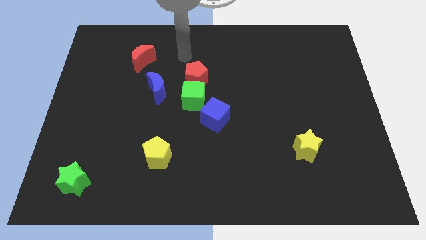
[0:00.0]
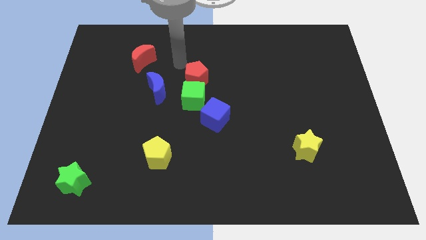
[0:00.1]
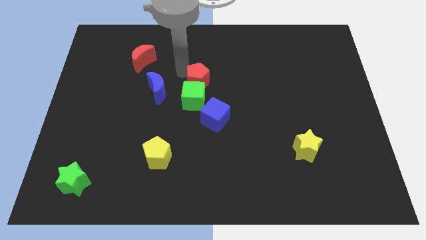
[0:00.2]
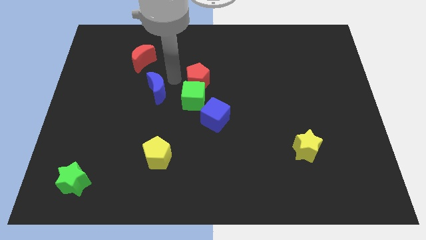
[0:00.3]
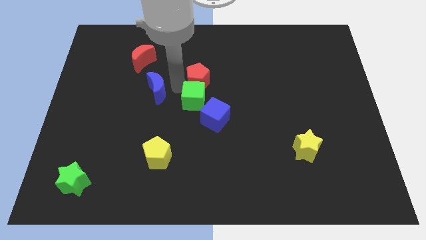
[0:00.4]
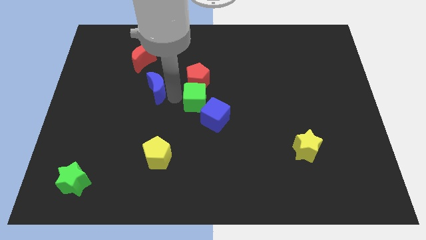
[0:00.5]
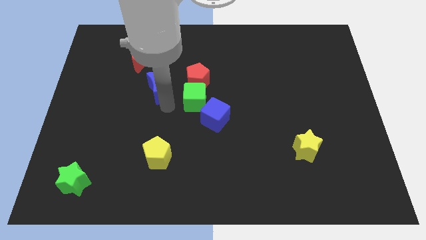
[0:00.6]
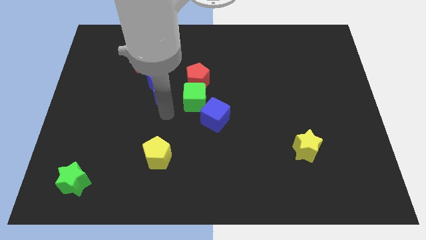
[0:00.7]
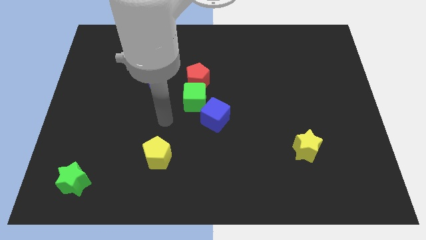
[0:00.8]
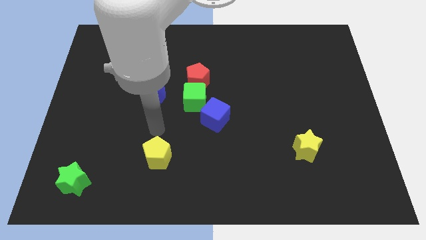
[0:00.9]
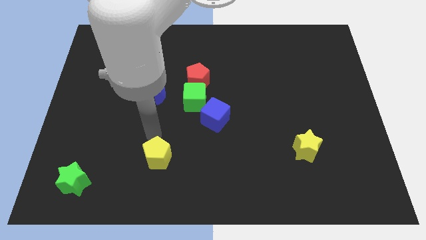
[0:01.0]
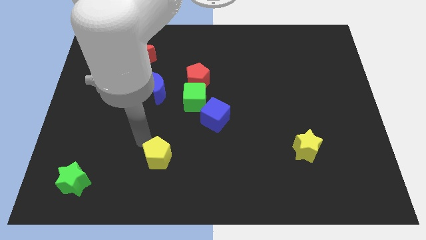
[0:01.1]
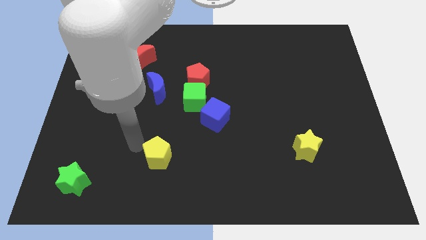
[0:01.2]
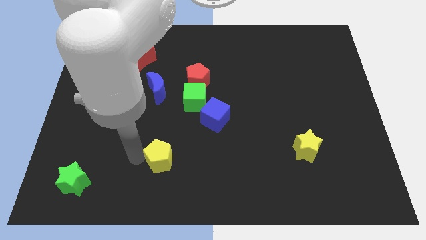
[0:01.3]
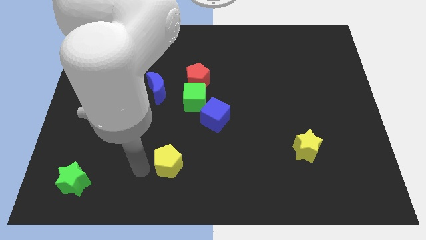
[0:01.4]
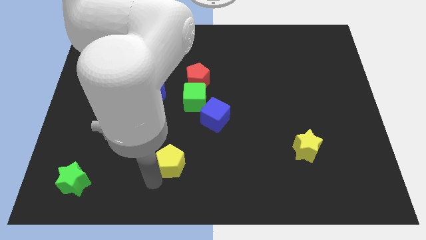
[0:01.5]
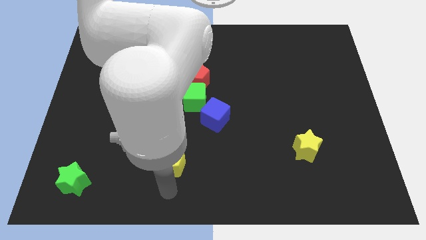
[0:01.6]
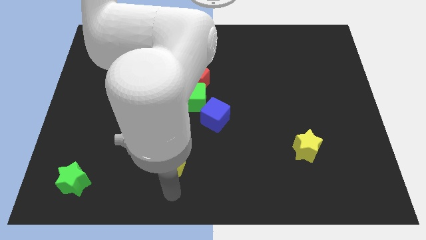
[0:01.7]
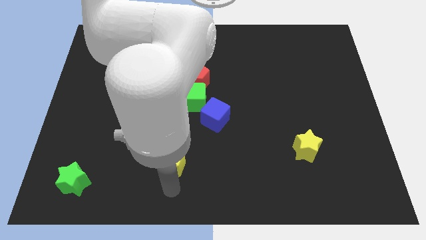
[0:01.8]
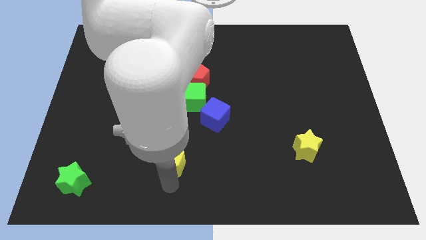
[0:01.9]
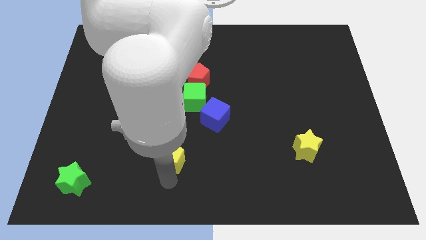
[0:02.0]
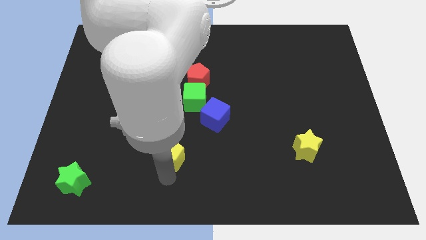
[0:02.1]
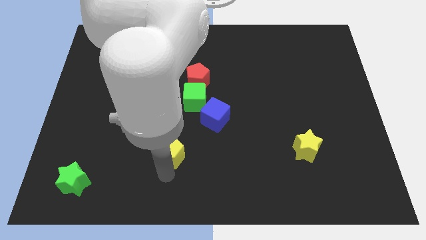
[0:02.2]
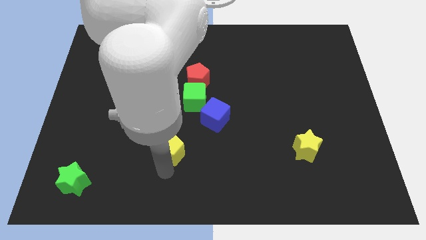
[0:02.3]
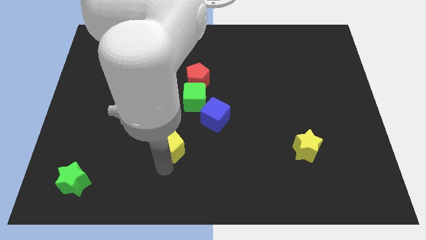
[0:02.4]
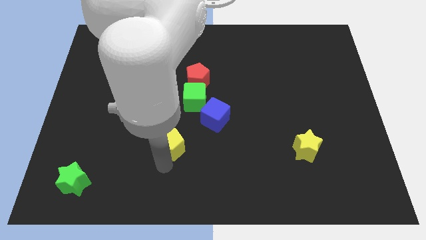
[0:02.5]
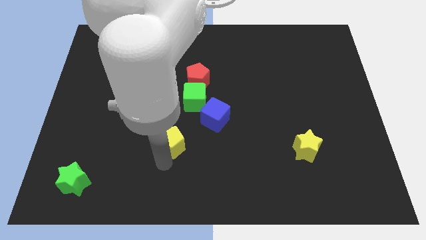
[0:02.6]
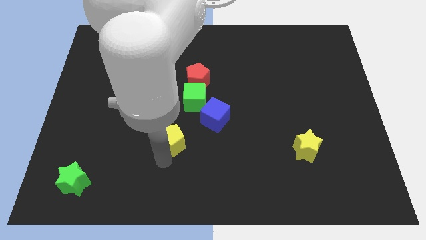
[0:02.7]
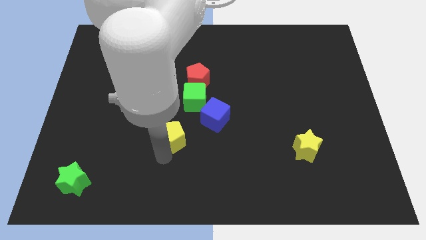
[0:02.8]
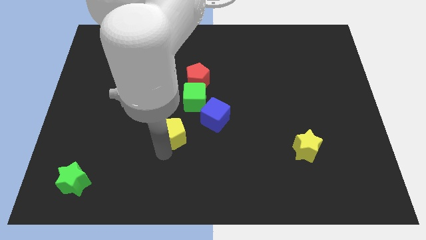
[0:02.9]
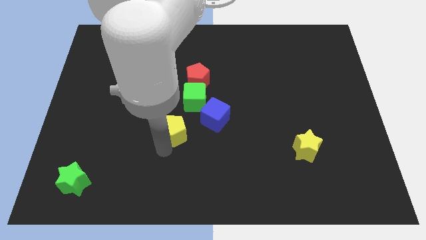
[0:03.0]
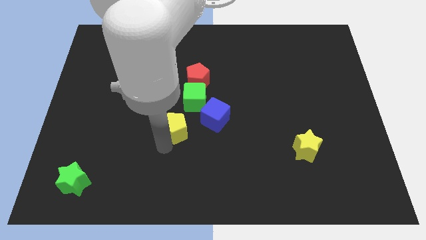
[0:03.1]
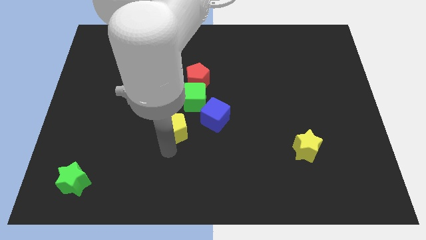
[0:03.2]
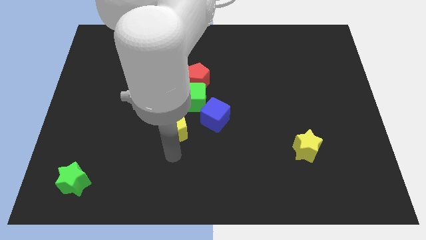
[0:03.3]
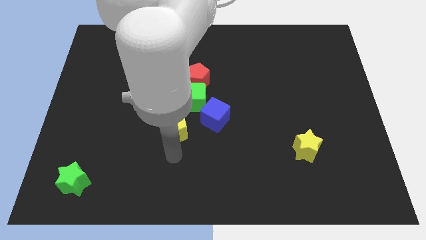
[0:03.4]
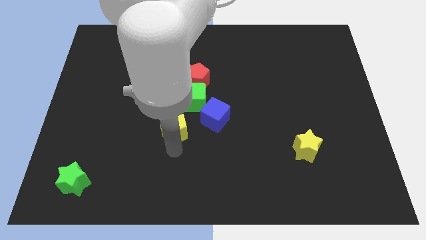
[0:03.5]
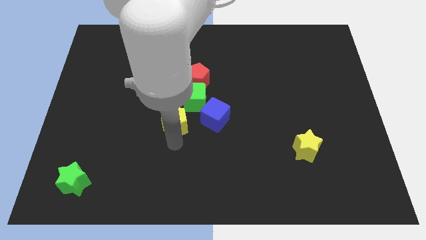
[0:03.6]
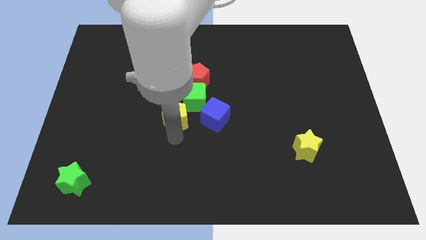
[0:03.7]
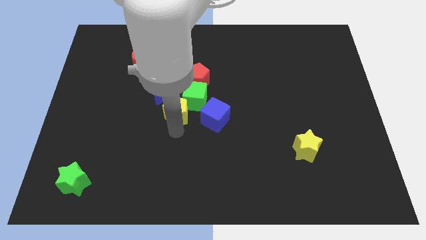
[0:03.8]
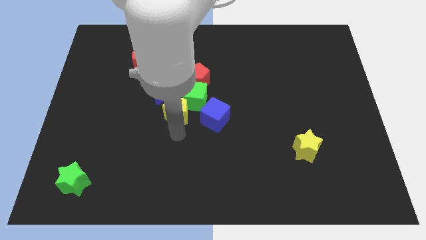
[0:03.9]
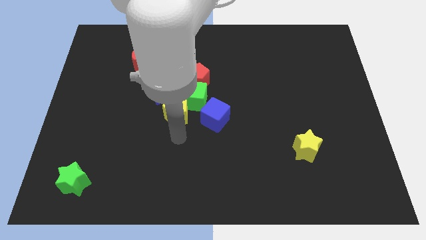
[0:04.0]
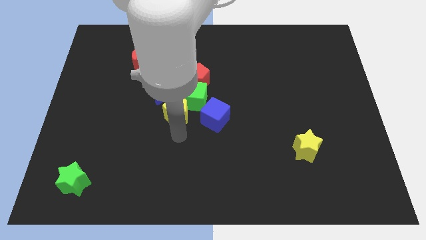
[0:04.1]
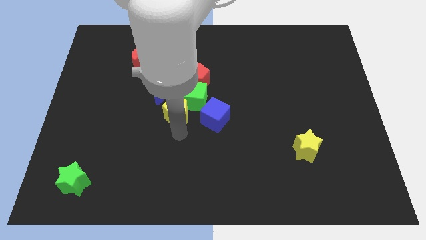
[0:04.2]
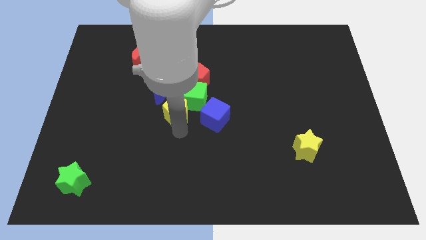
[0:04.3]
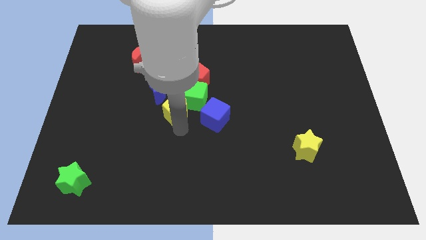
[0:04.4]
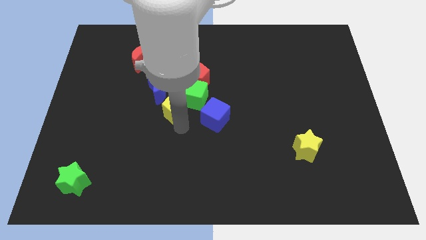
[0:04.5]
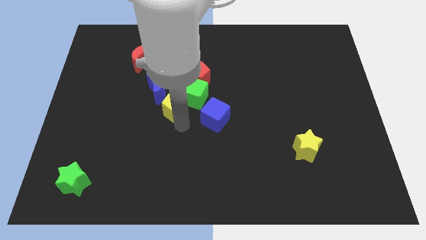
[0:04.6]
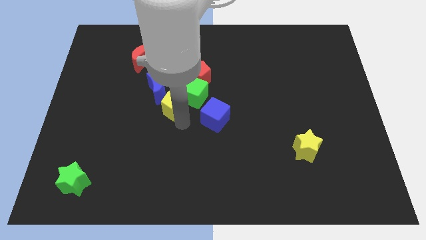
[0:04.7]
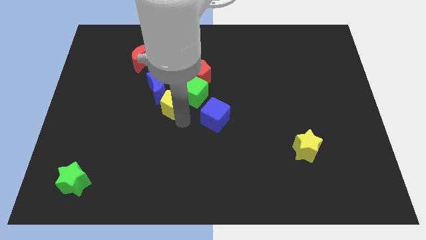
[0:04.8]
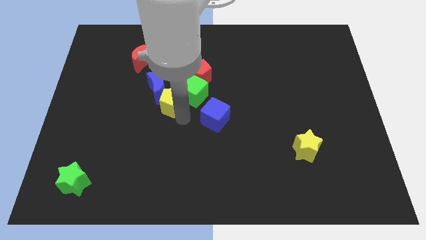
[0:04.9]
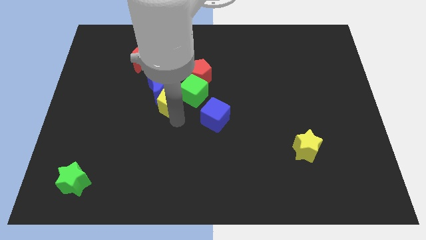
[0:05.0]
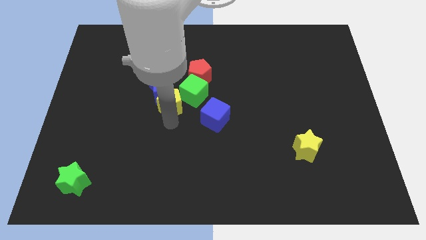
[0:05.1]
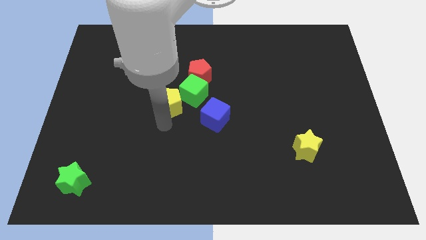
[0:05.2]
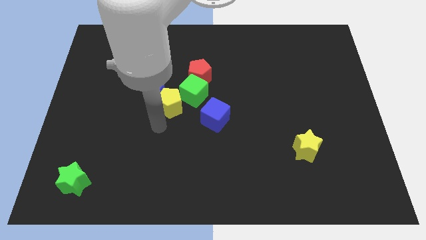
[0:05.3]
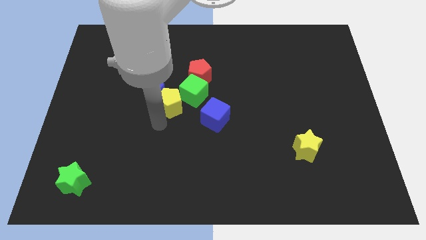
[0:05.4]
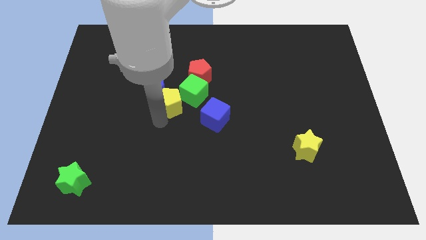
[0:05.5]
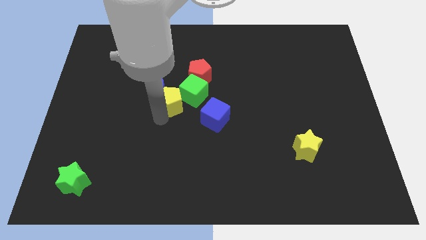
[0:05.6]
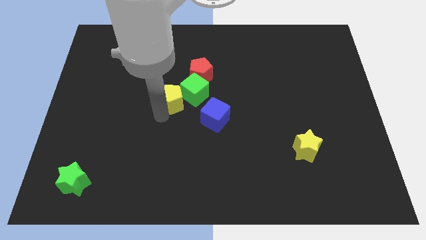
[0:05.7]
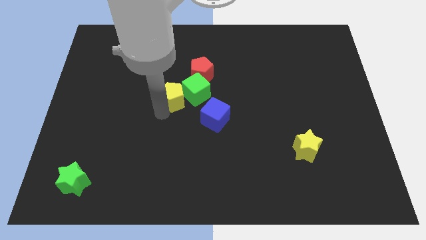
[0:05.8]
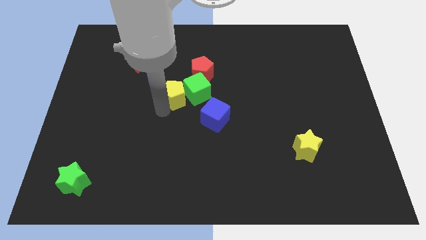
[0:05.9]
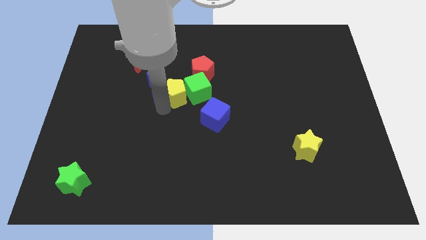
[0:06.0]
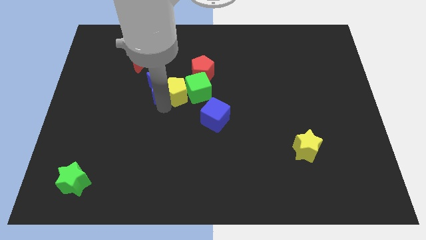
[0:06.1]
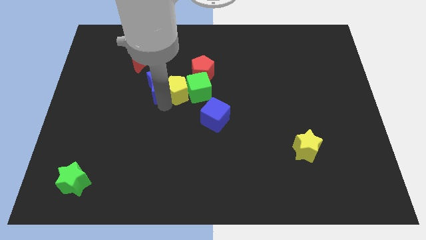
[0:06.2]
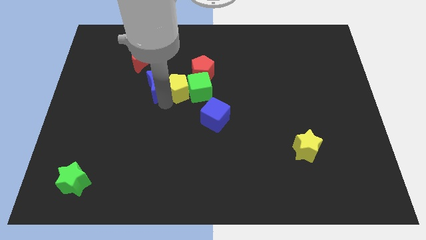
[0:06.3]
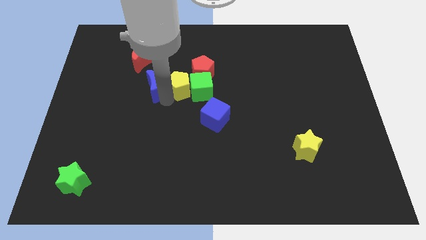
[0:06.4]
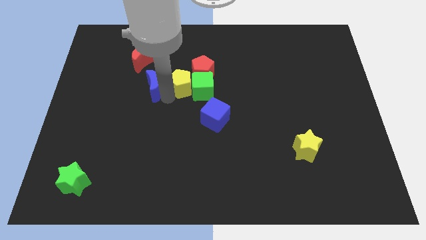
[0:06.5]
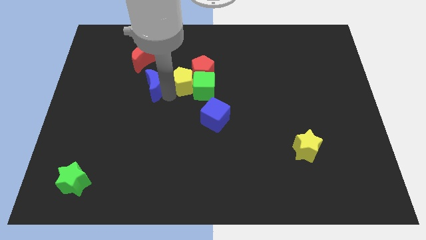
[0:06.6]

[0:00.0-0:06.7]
push the yellow pentagon to the red pentagon
